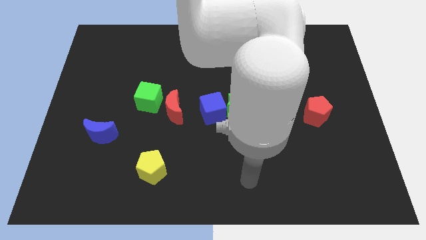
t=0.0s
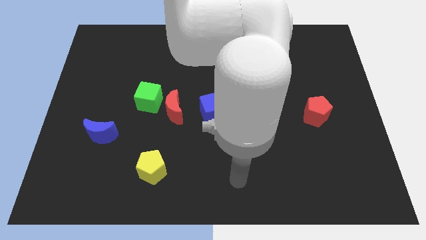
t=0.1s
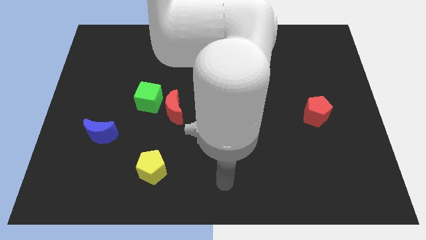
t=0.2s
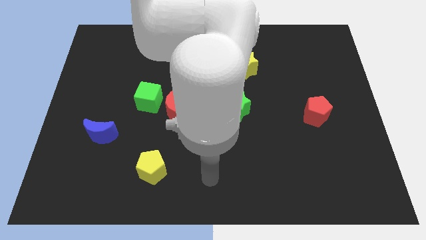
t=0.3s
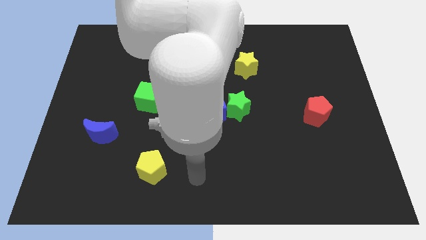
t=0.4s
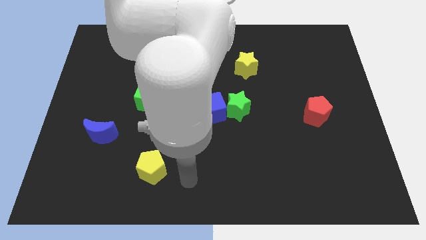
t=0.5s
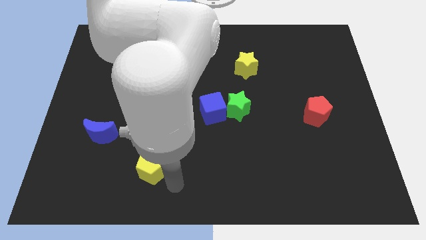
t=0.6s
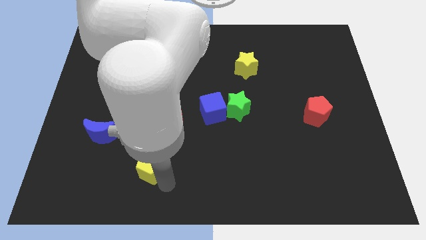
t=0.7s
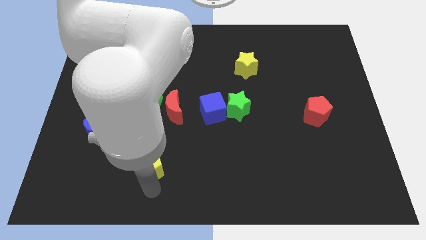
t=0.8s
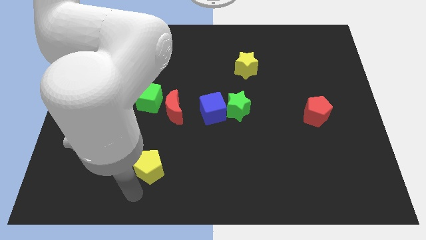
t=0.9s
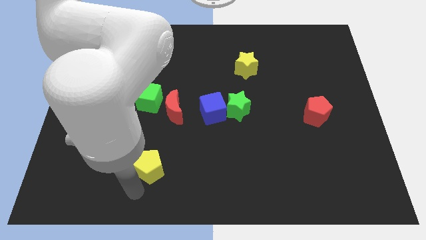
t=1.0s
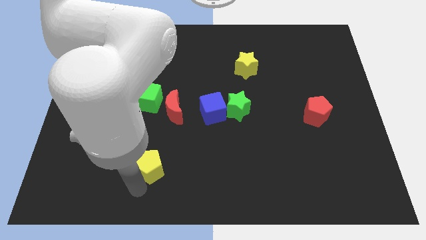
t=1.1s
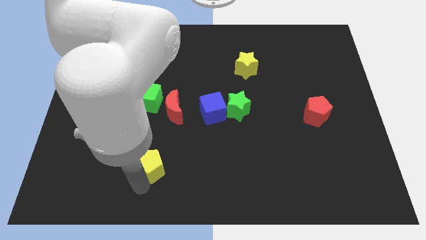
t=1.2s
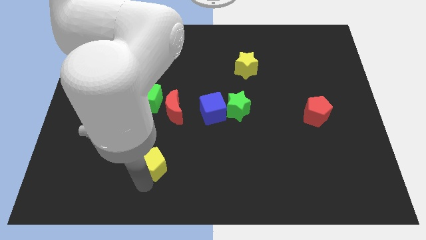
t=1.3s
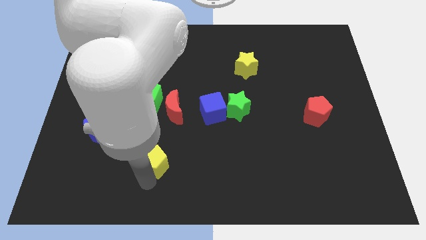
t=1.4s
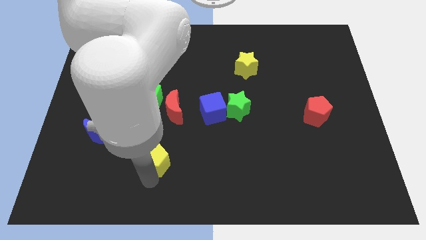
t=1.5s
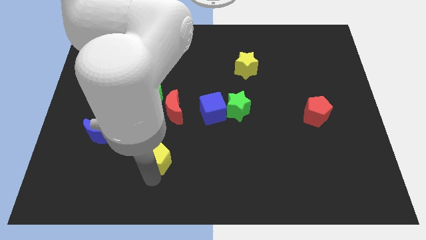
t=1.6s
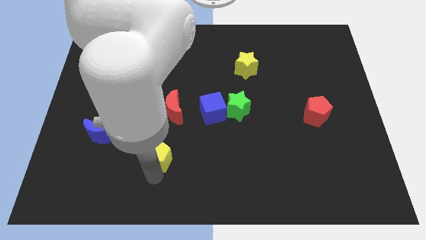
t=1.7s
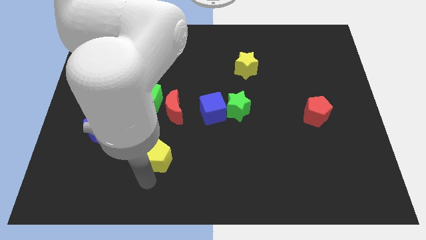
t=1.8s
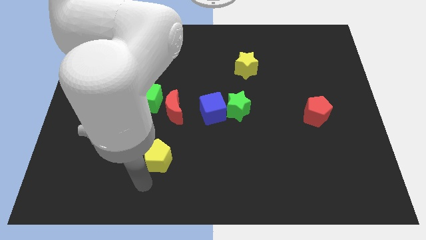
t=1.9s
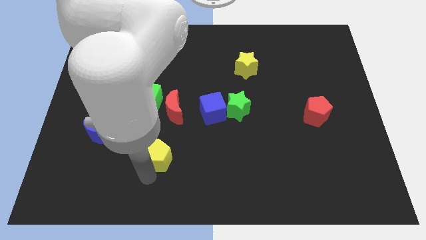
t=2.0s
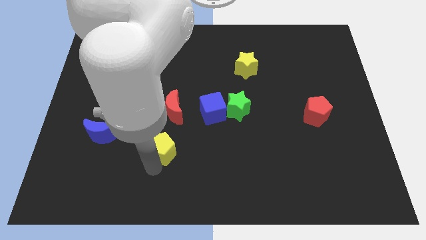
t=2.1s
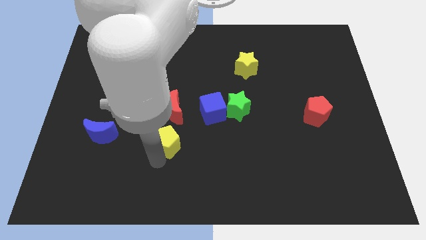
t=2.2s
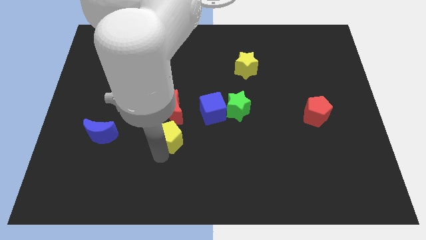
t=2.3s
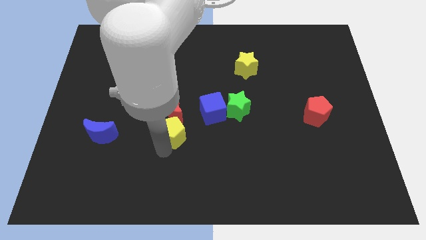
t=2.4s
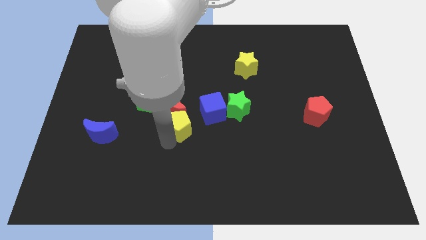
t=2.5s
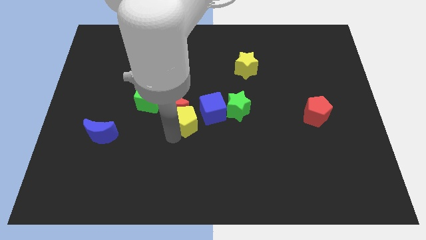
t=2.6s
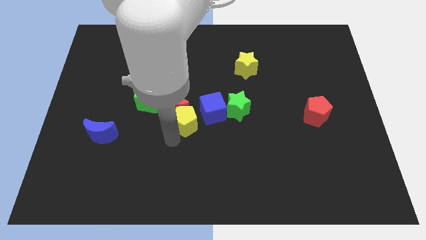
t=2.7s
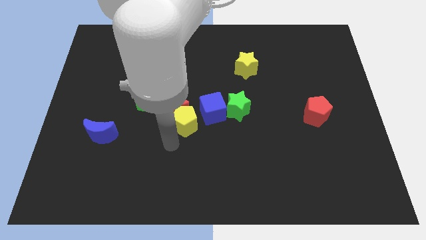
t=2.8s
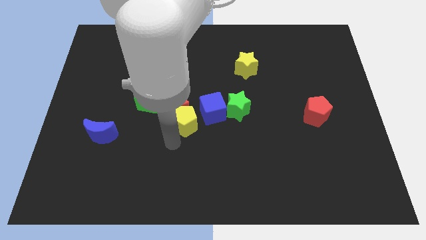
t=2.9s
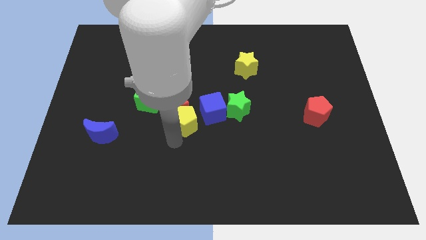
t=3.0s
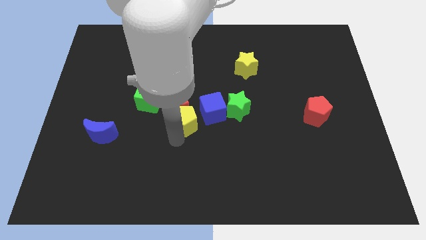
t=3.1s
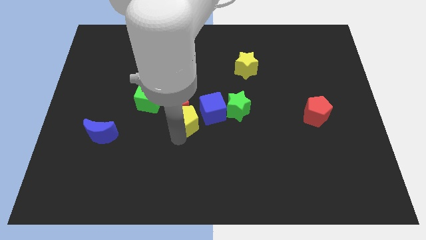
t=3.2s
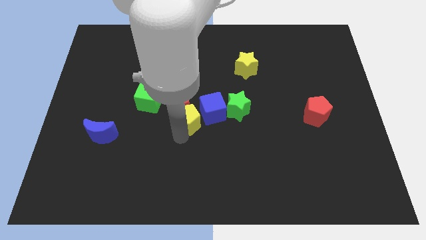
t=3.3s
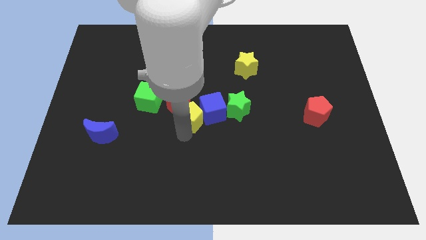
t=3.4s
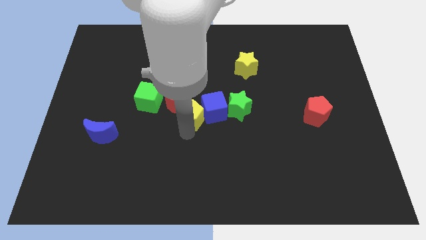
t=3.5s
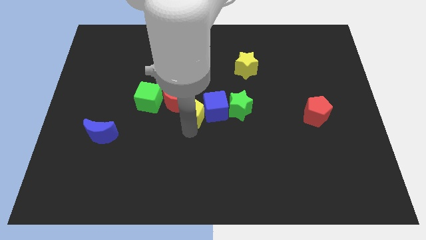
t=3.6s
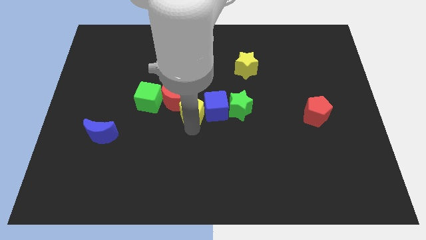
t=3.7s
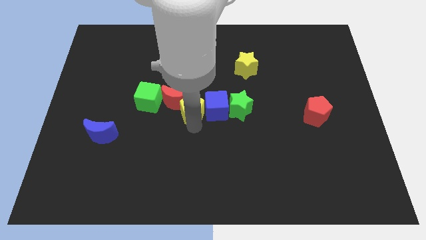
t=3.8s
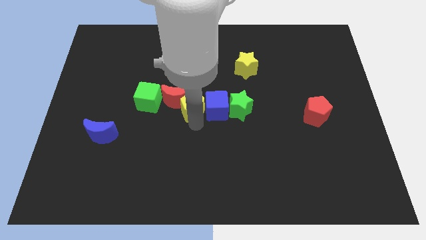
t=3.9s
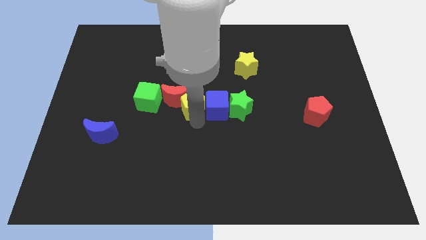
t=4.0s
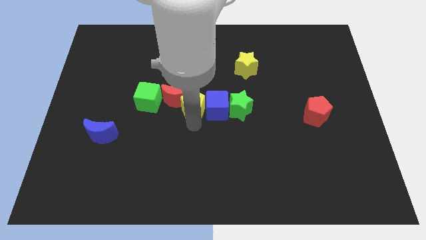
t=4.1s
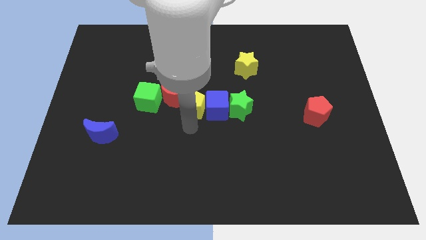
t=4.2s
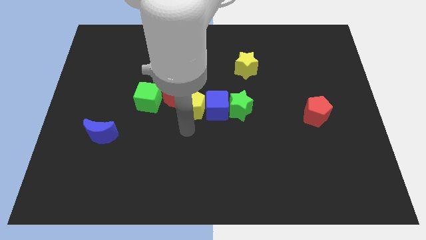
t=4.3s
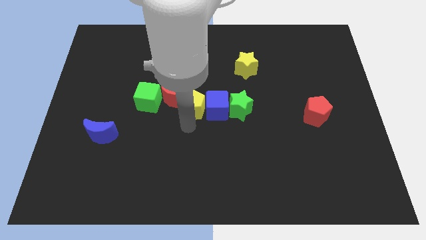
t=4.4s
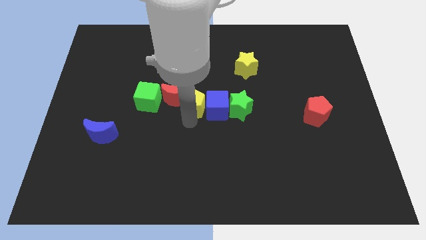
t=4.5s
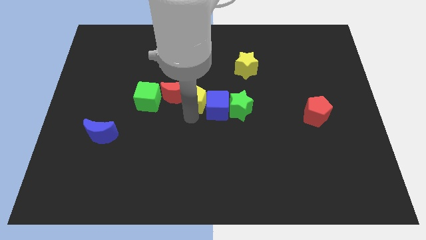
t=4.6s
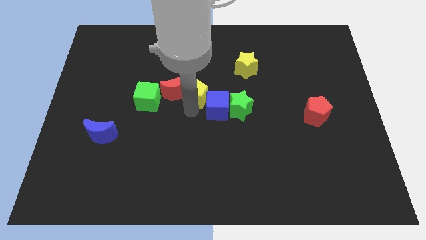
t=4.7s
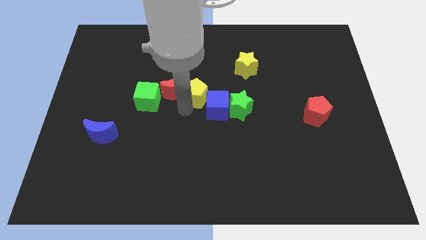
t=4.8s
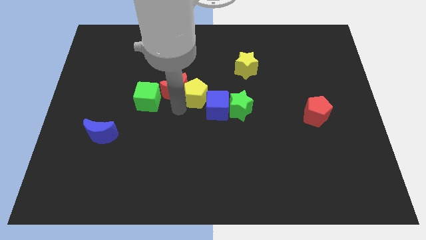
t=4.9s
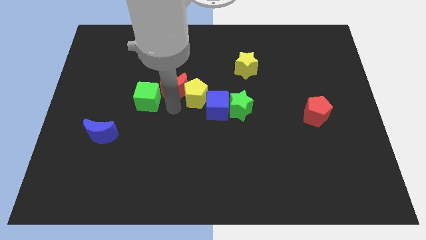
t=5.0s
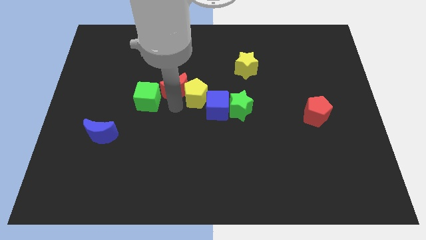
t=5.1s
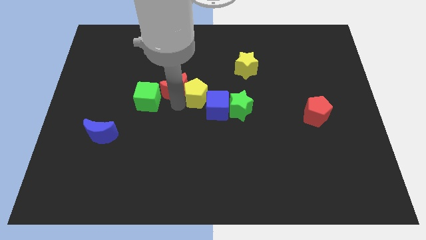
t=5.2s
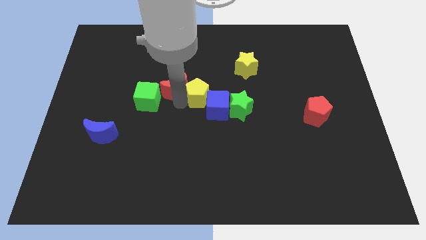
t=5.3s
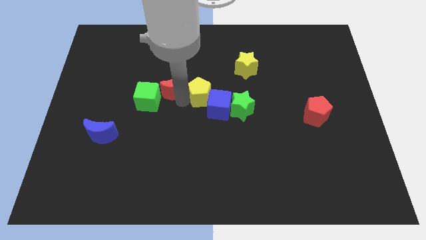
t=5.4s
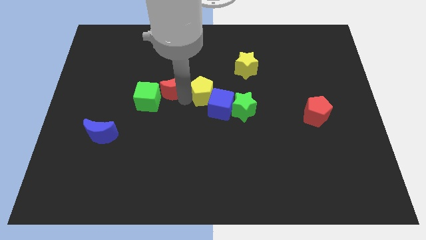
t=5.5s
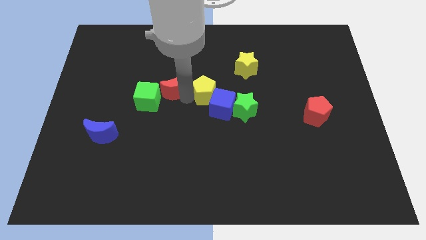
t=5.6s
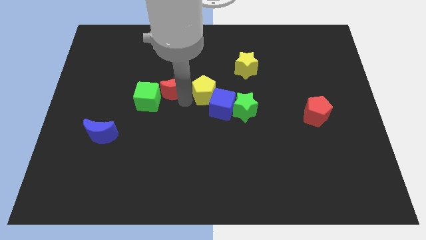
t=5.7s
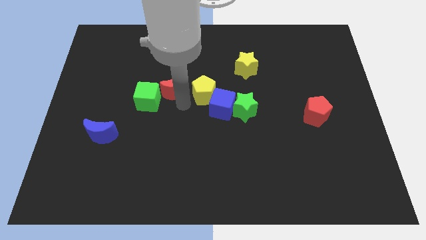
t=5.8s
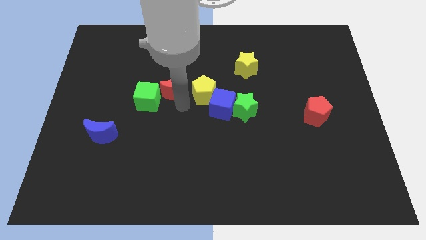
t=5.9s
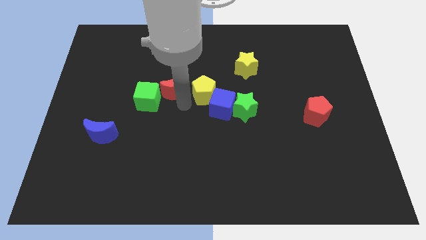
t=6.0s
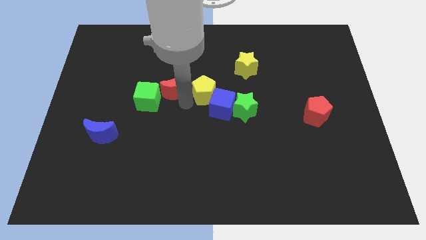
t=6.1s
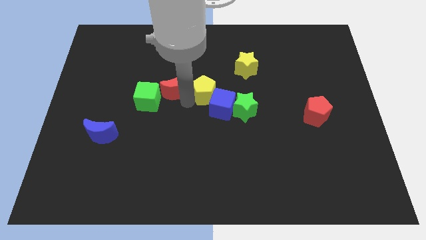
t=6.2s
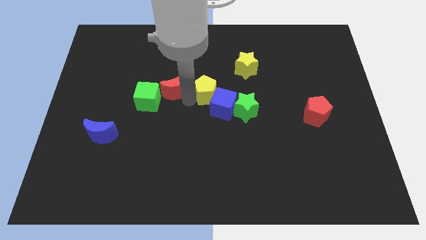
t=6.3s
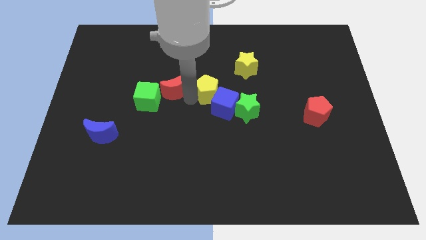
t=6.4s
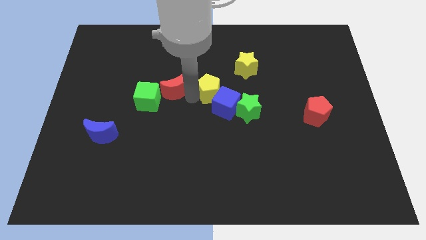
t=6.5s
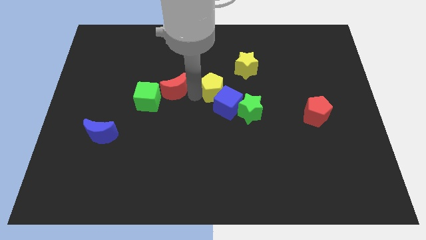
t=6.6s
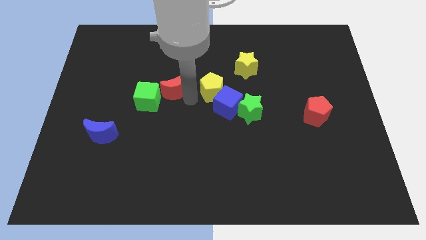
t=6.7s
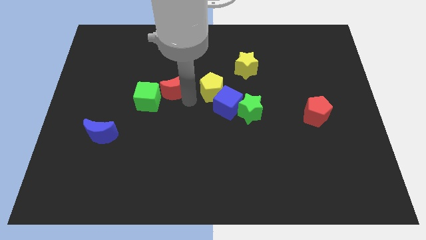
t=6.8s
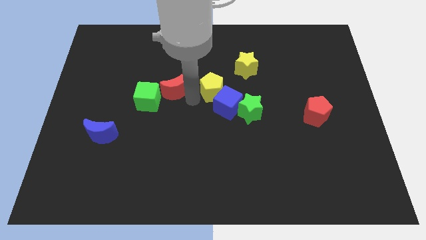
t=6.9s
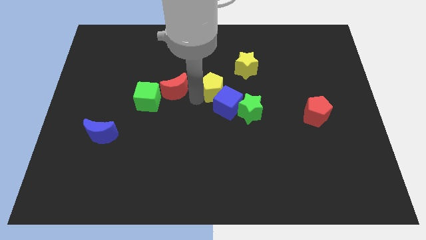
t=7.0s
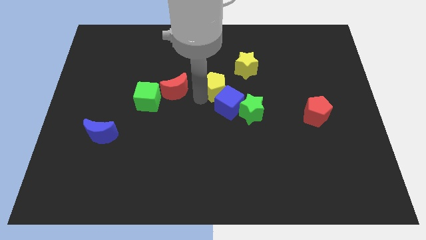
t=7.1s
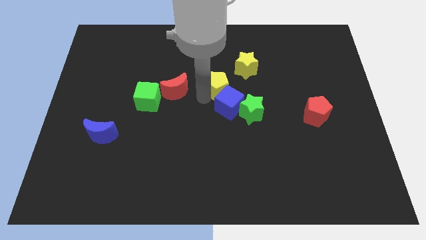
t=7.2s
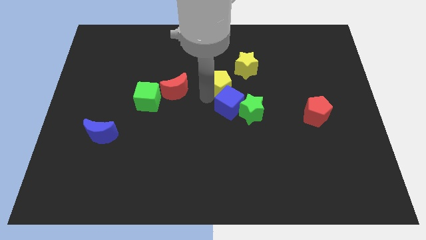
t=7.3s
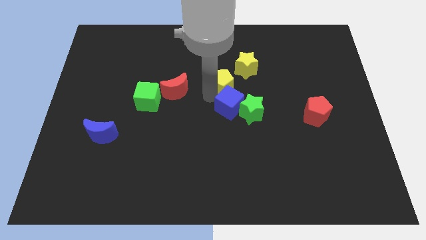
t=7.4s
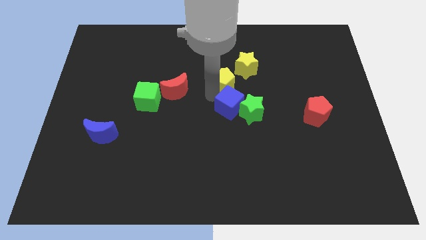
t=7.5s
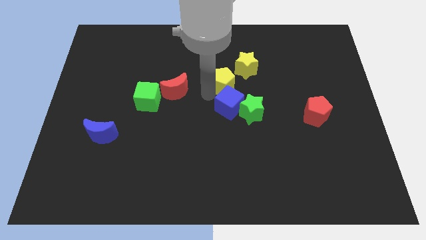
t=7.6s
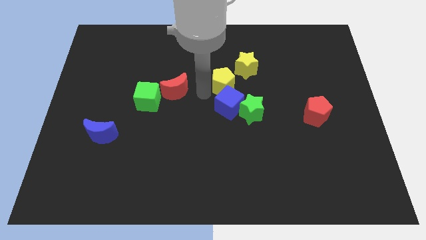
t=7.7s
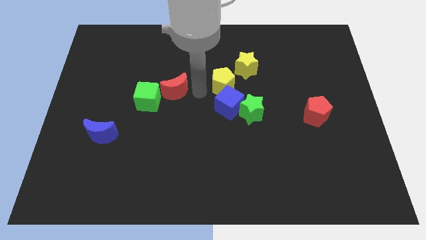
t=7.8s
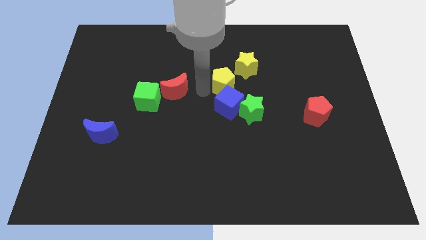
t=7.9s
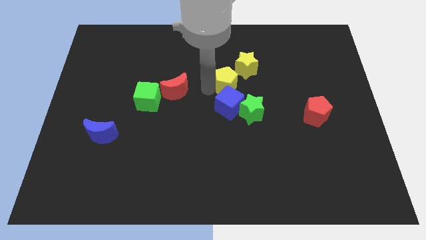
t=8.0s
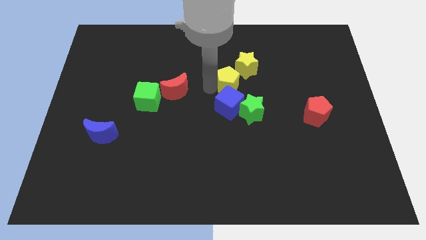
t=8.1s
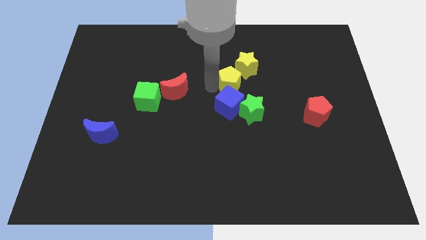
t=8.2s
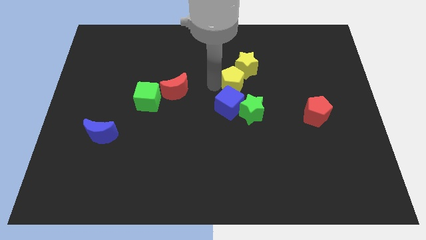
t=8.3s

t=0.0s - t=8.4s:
slide the yellow pentagon towards the yellow star
